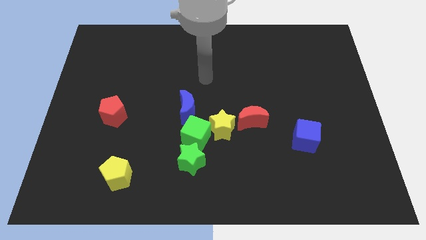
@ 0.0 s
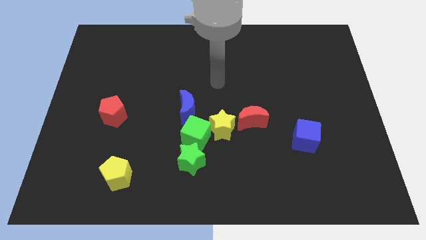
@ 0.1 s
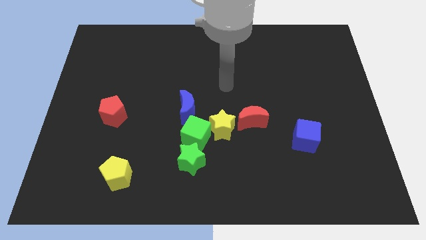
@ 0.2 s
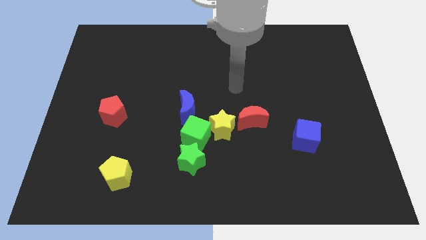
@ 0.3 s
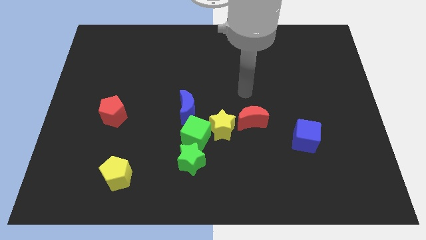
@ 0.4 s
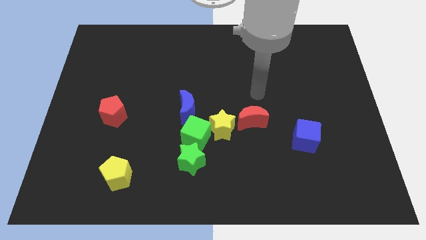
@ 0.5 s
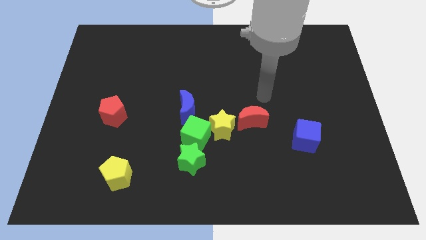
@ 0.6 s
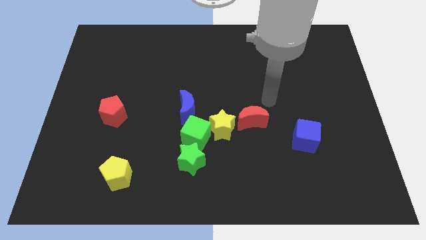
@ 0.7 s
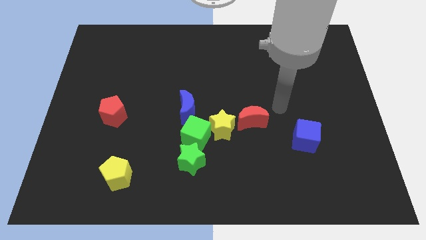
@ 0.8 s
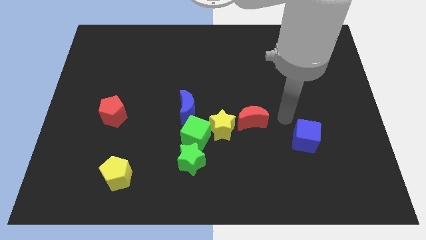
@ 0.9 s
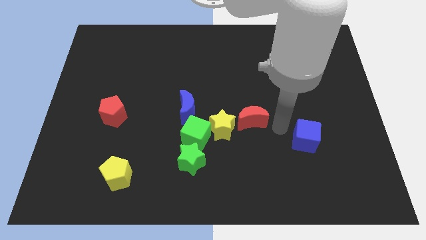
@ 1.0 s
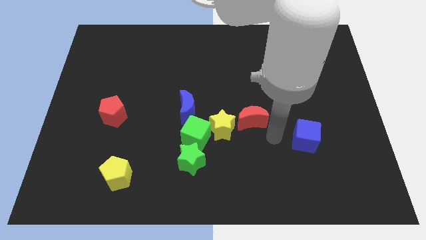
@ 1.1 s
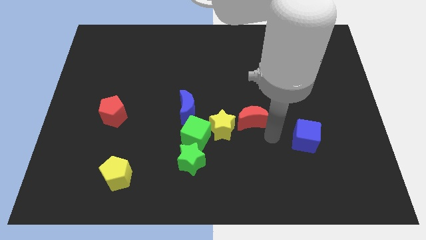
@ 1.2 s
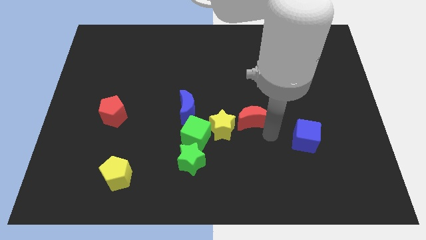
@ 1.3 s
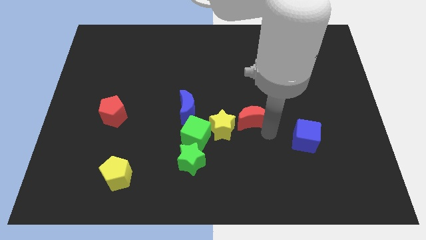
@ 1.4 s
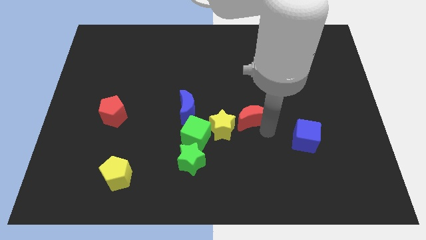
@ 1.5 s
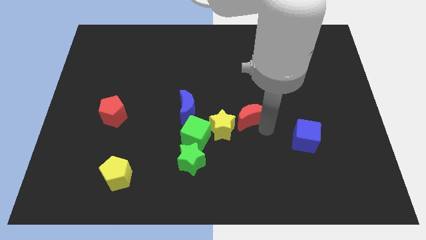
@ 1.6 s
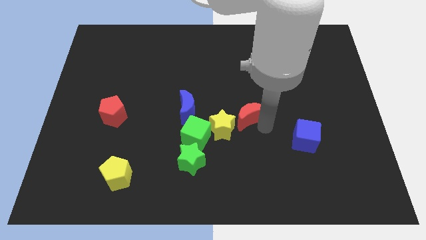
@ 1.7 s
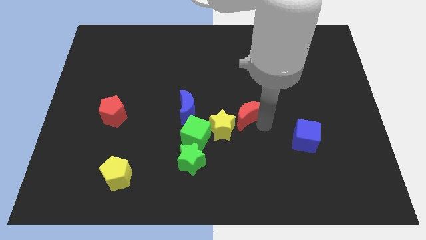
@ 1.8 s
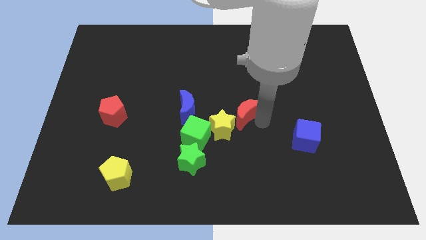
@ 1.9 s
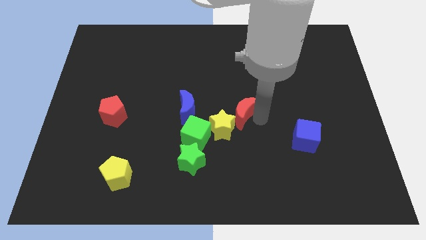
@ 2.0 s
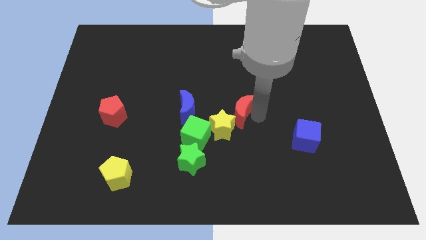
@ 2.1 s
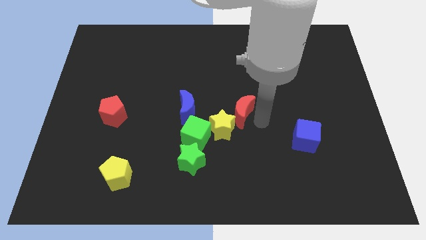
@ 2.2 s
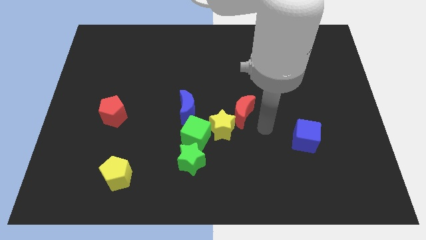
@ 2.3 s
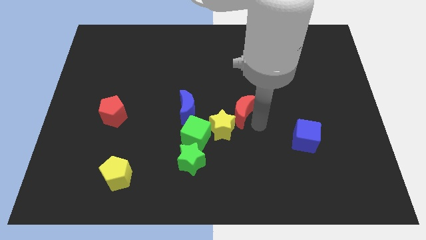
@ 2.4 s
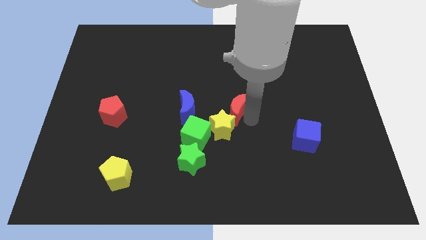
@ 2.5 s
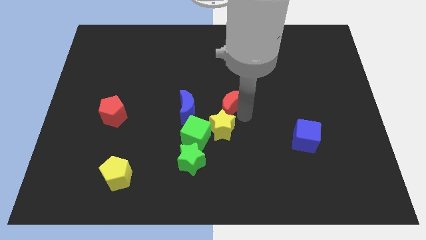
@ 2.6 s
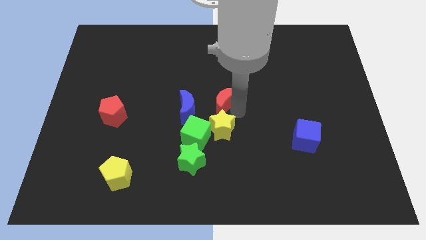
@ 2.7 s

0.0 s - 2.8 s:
move the red moon upwards and left a little bit

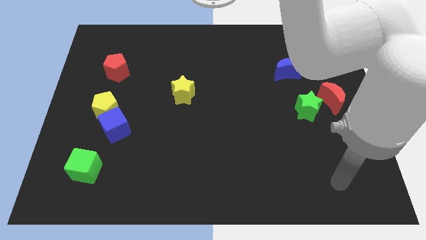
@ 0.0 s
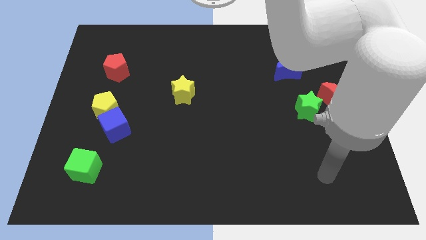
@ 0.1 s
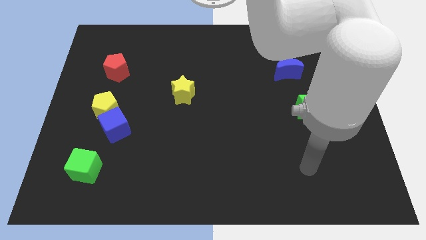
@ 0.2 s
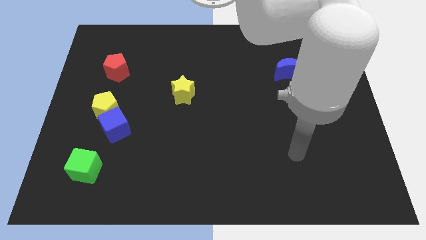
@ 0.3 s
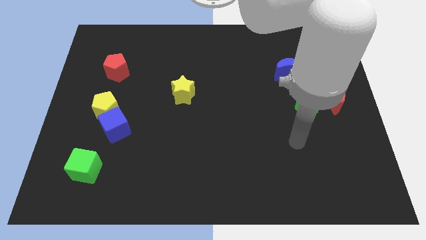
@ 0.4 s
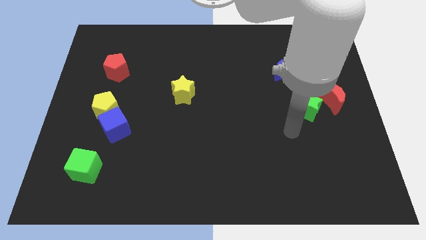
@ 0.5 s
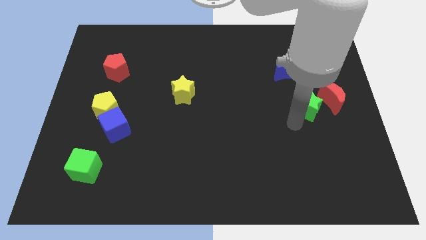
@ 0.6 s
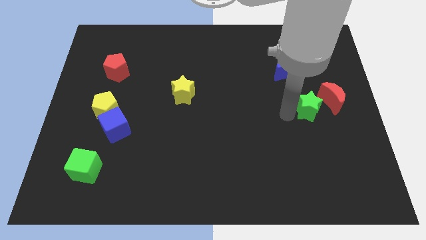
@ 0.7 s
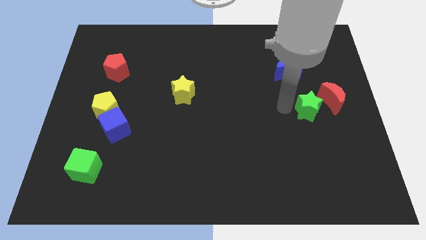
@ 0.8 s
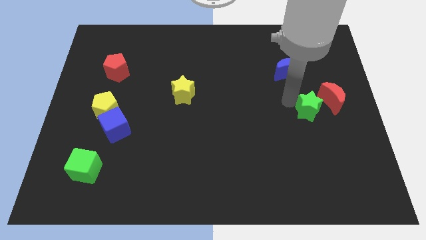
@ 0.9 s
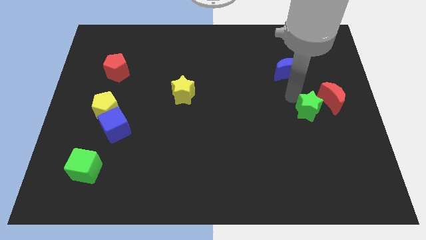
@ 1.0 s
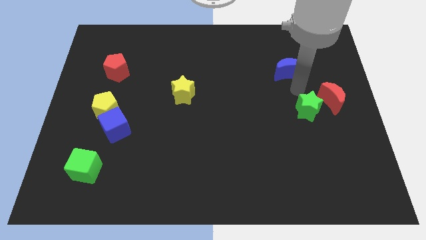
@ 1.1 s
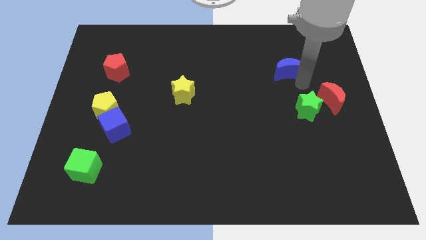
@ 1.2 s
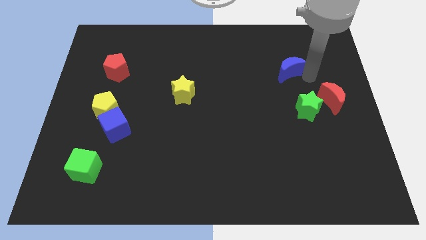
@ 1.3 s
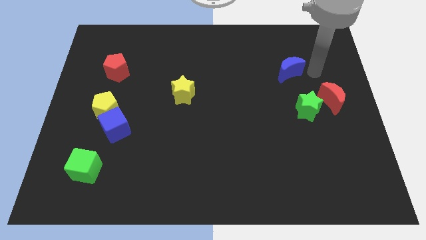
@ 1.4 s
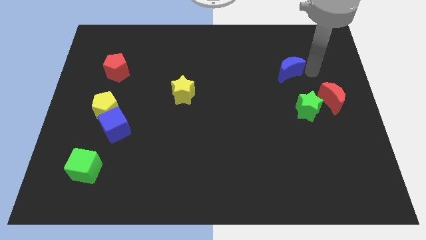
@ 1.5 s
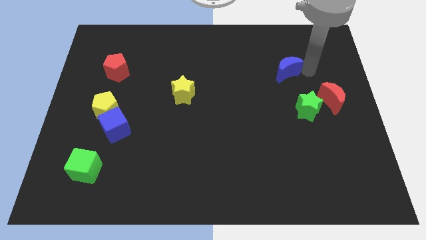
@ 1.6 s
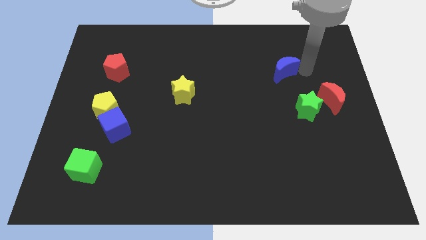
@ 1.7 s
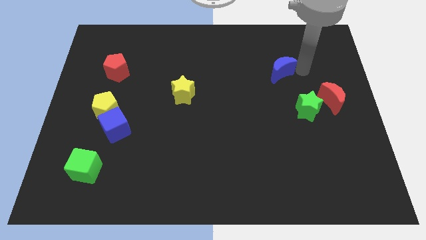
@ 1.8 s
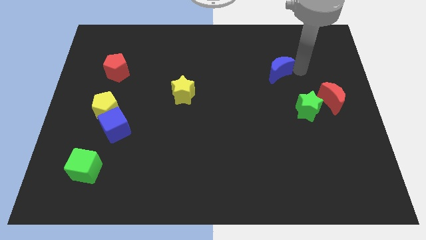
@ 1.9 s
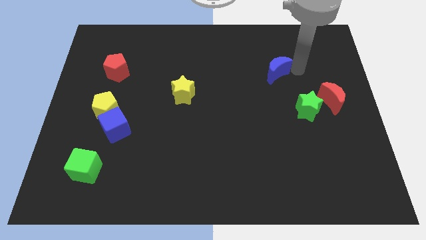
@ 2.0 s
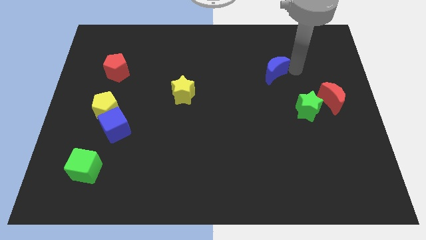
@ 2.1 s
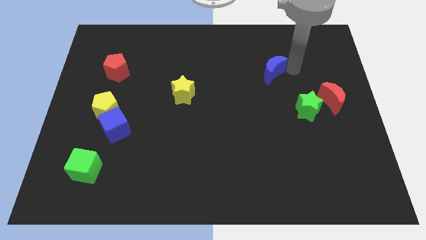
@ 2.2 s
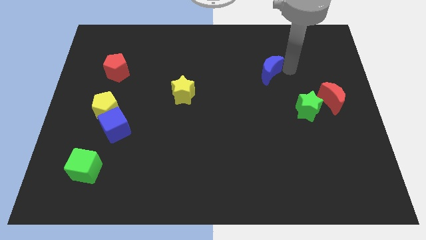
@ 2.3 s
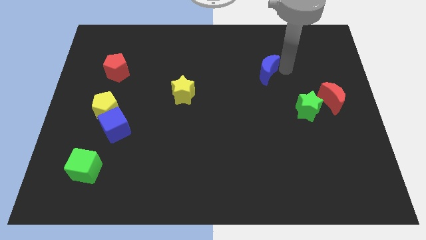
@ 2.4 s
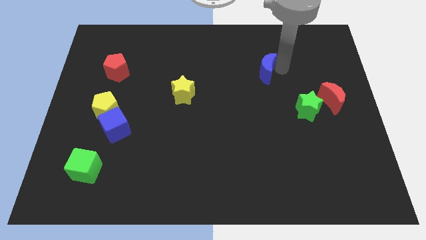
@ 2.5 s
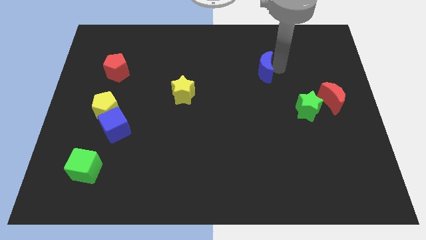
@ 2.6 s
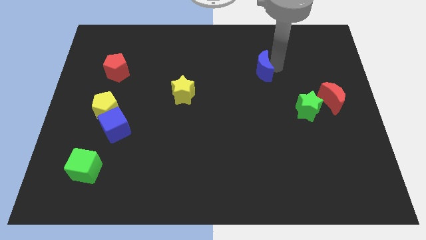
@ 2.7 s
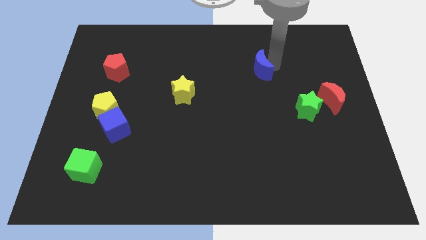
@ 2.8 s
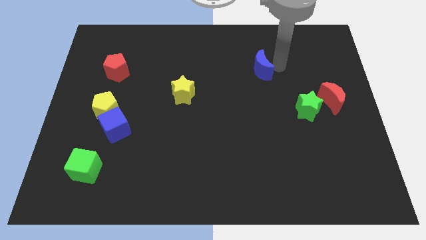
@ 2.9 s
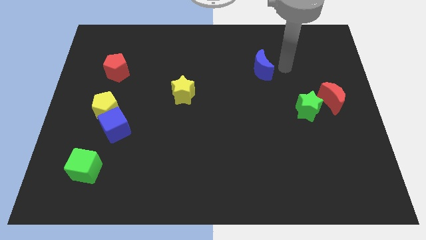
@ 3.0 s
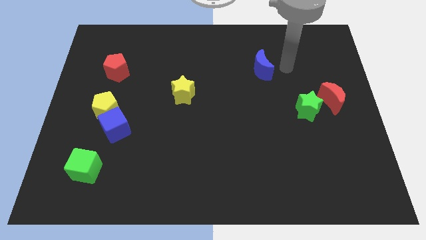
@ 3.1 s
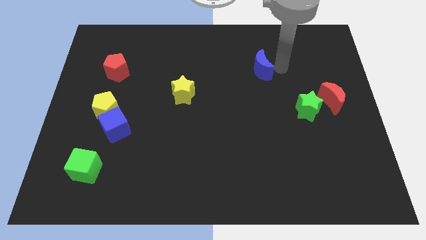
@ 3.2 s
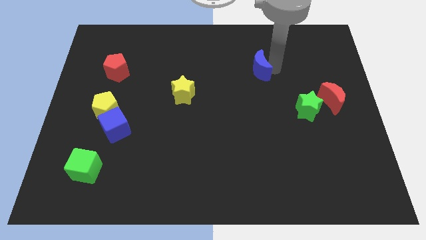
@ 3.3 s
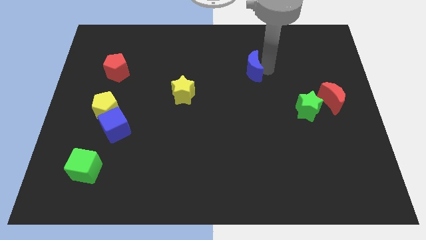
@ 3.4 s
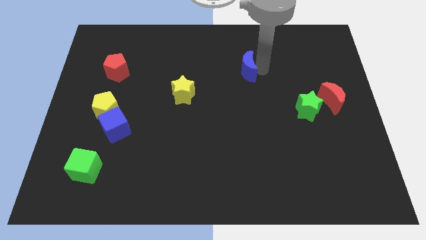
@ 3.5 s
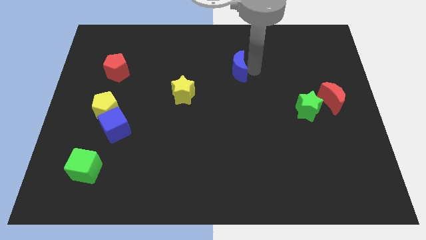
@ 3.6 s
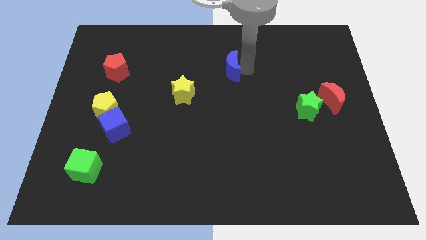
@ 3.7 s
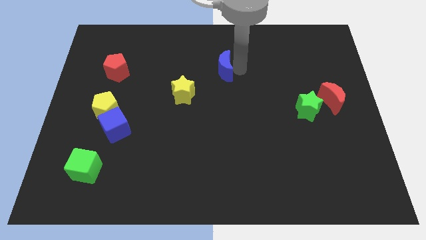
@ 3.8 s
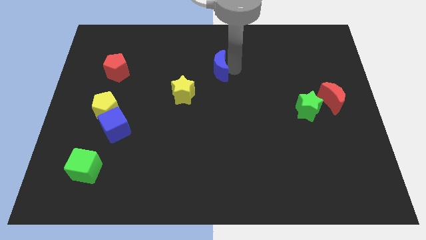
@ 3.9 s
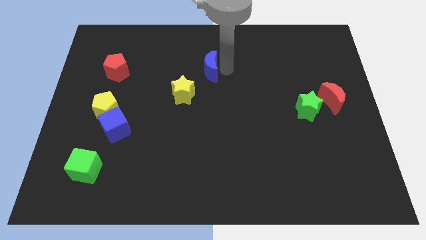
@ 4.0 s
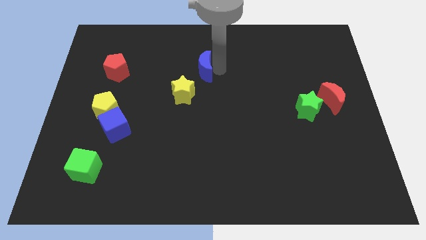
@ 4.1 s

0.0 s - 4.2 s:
slide the blue moon to the left

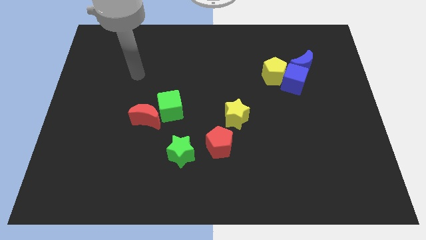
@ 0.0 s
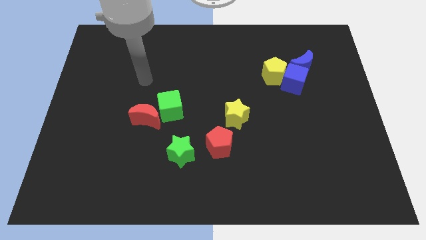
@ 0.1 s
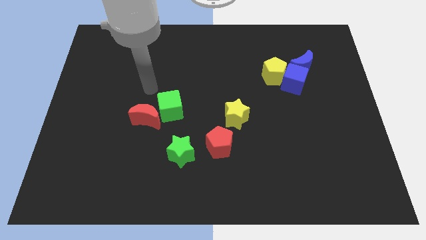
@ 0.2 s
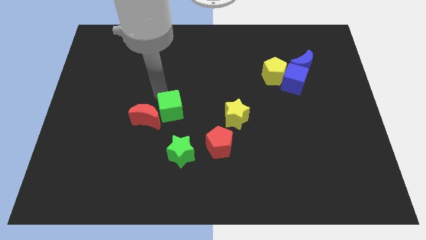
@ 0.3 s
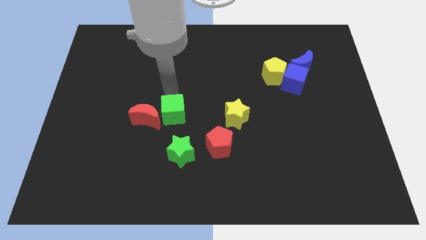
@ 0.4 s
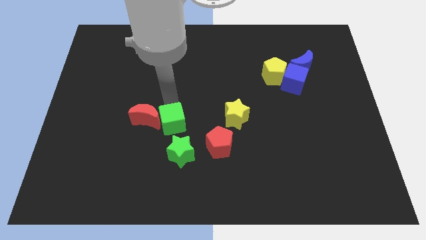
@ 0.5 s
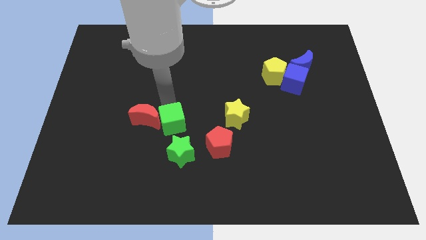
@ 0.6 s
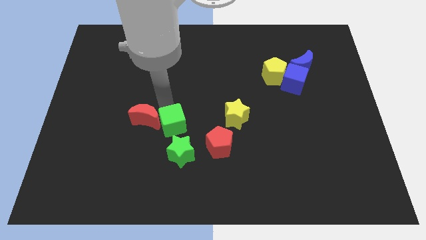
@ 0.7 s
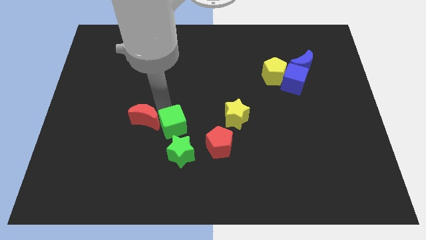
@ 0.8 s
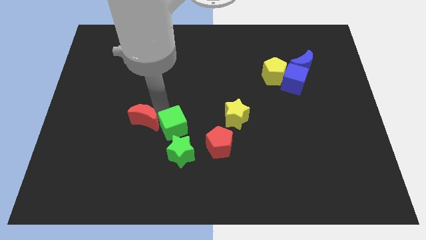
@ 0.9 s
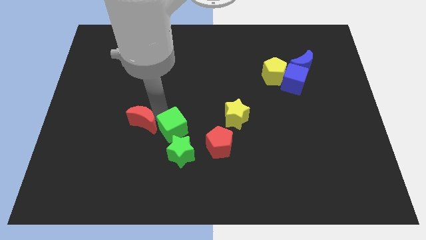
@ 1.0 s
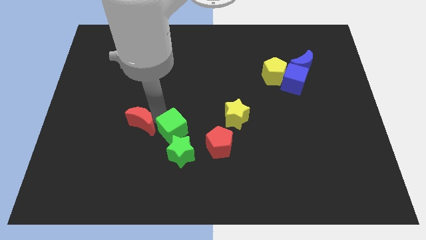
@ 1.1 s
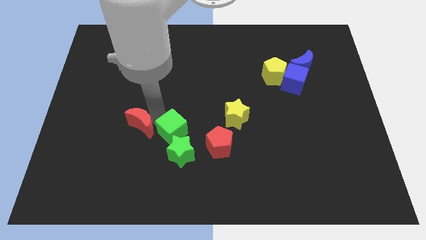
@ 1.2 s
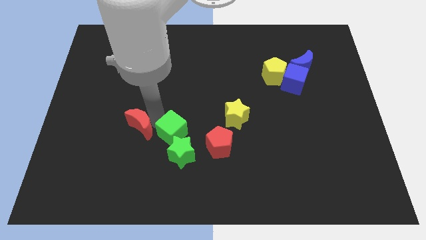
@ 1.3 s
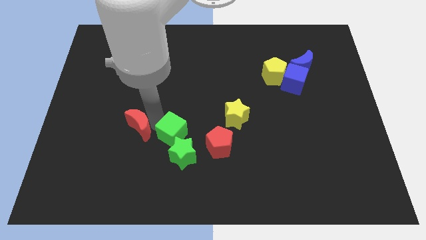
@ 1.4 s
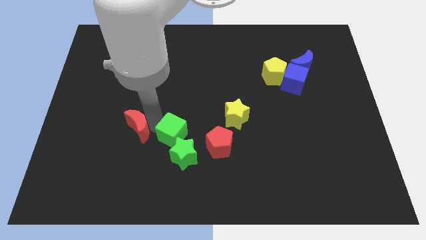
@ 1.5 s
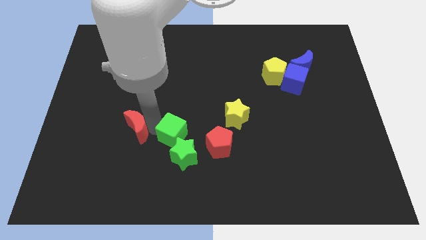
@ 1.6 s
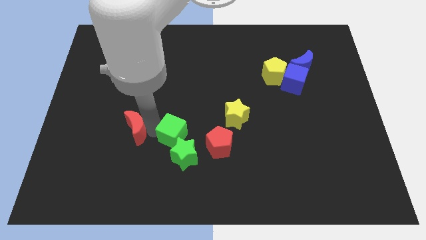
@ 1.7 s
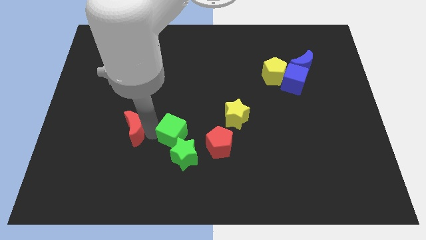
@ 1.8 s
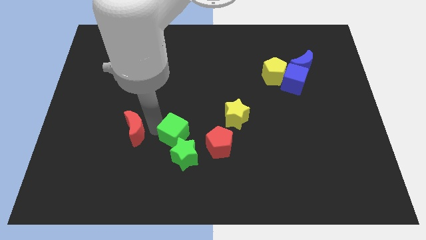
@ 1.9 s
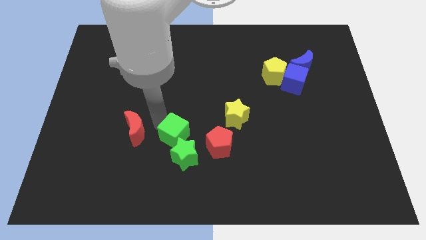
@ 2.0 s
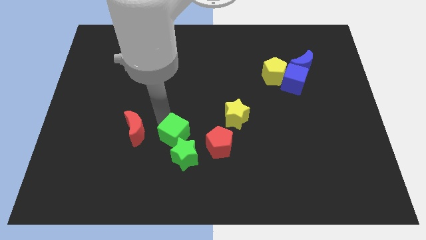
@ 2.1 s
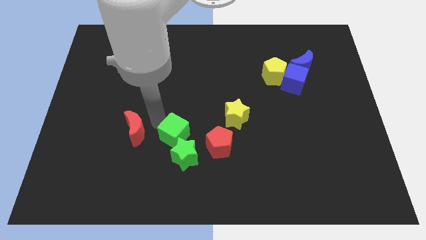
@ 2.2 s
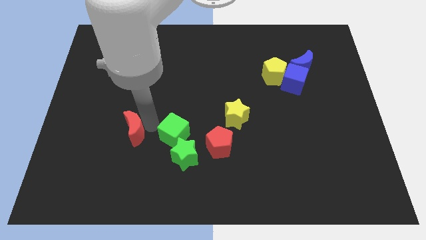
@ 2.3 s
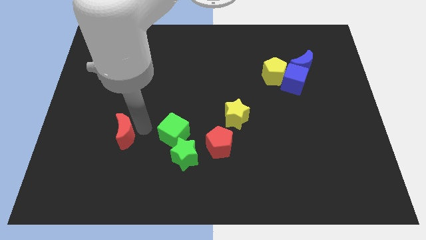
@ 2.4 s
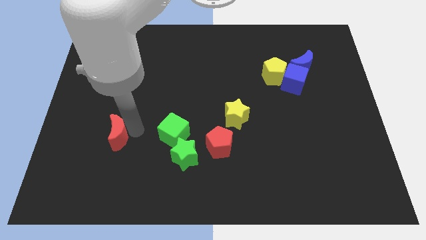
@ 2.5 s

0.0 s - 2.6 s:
slightly move the red moon down and then to the left
